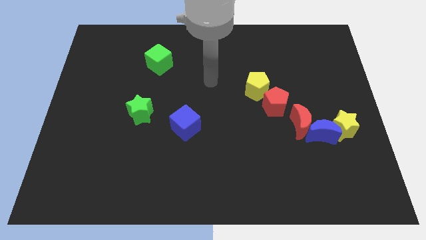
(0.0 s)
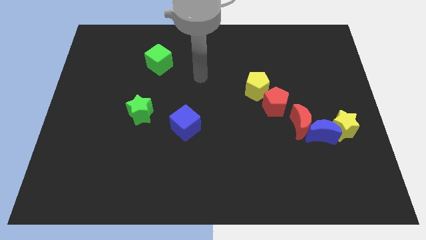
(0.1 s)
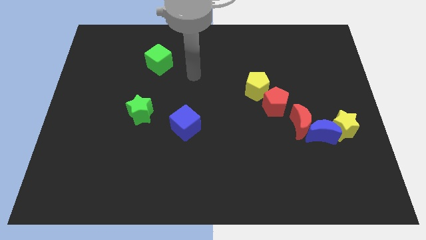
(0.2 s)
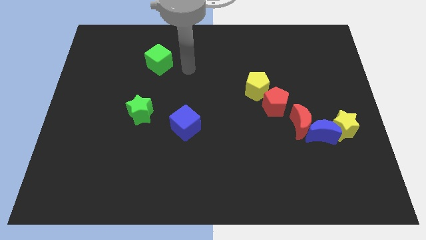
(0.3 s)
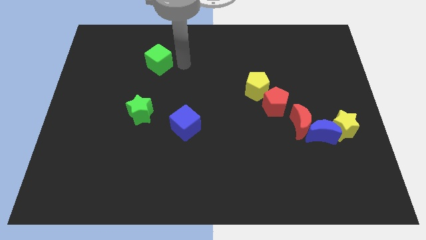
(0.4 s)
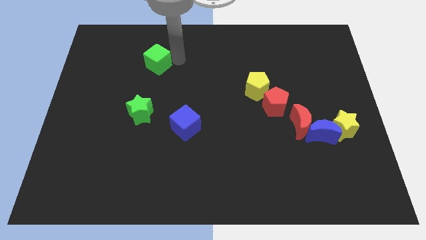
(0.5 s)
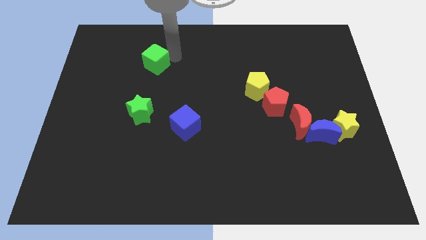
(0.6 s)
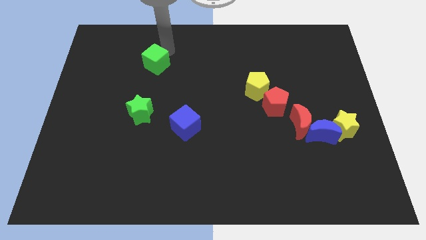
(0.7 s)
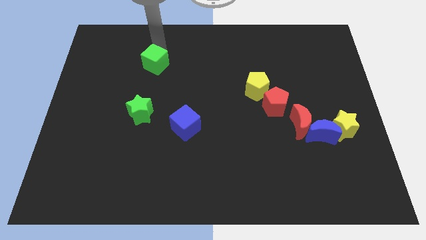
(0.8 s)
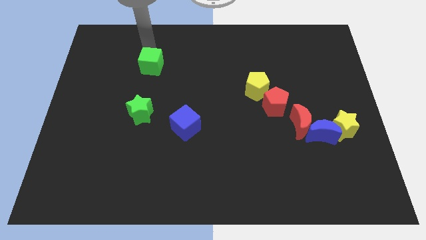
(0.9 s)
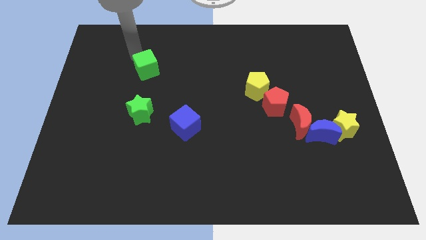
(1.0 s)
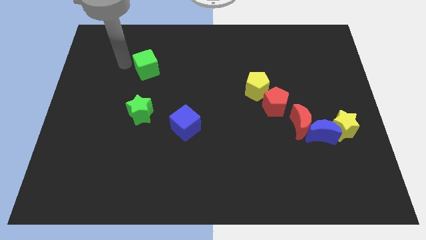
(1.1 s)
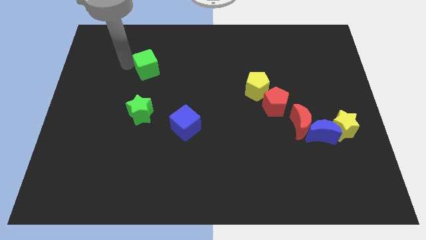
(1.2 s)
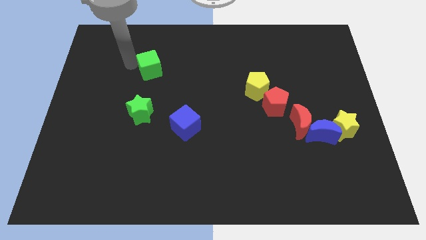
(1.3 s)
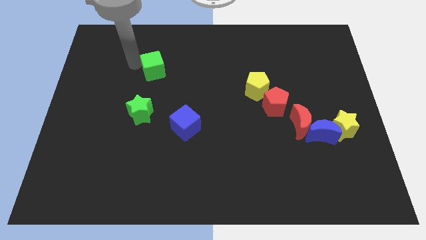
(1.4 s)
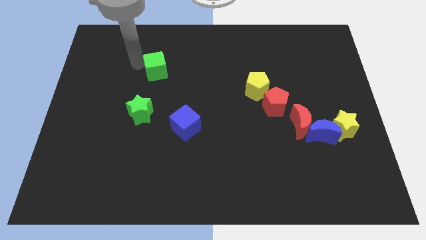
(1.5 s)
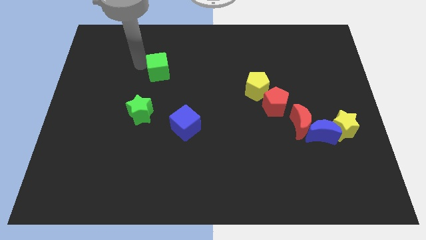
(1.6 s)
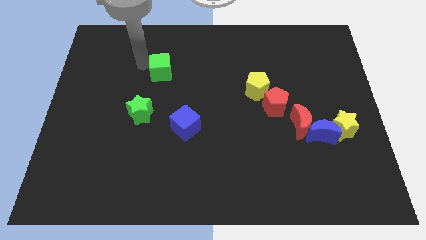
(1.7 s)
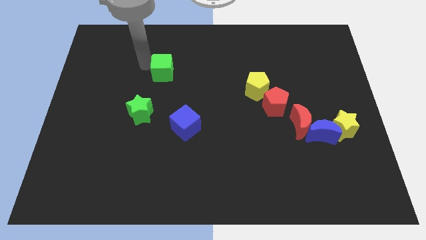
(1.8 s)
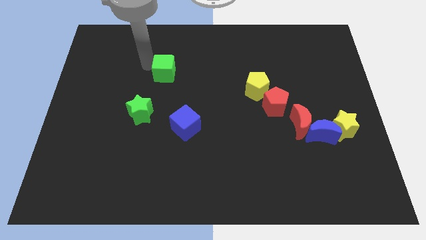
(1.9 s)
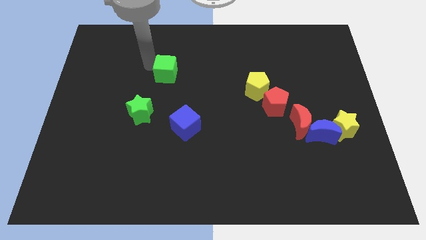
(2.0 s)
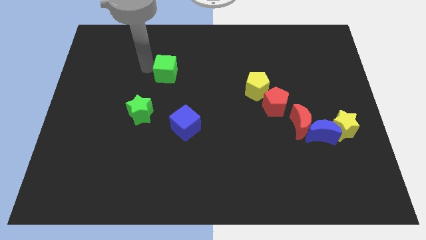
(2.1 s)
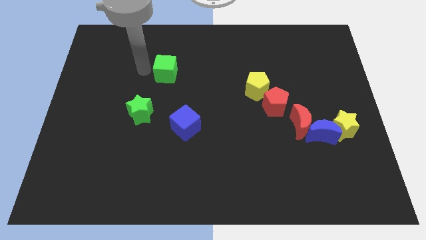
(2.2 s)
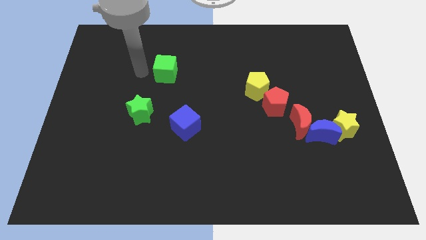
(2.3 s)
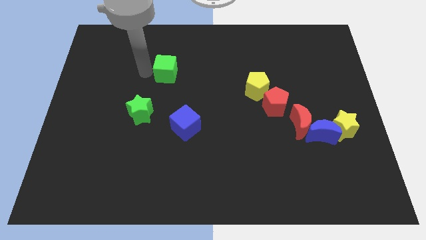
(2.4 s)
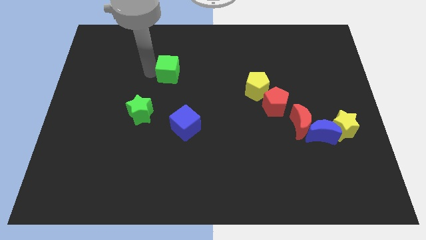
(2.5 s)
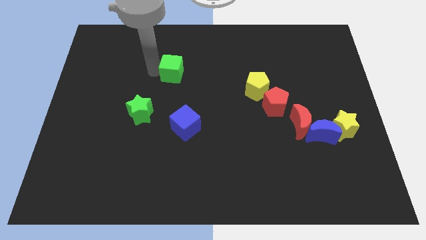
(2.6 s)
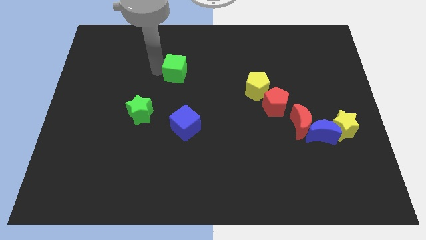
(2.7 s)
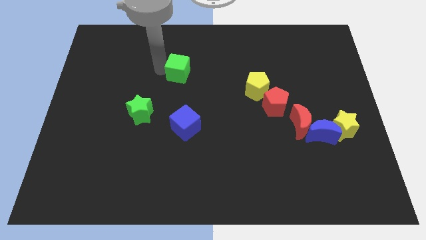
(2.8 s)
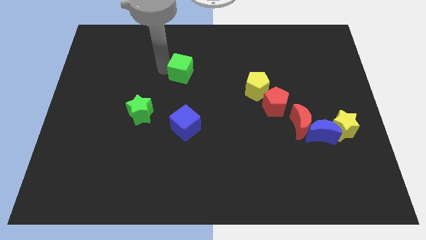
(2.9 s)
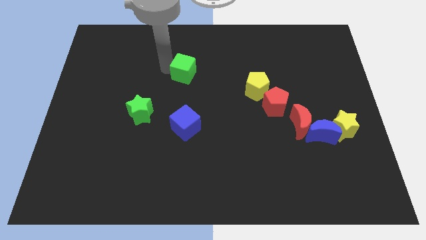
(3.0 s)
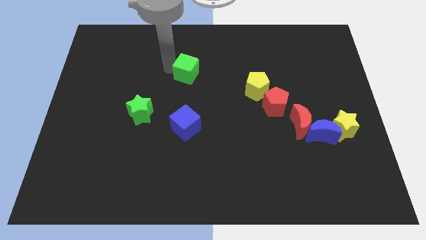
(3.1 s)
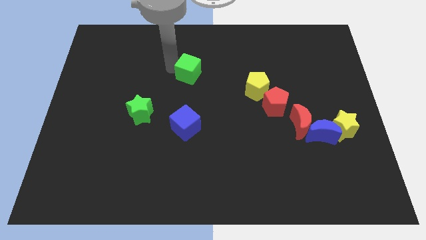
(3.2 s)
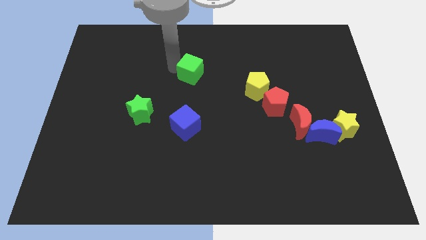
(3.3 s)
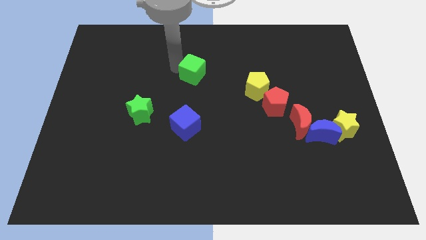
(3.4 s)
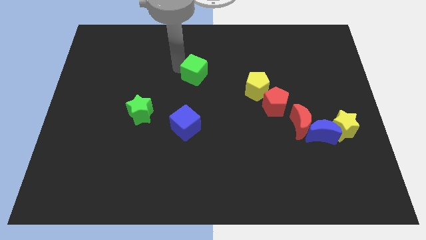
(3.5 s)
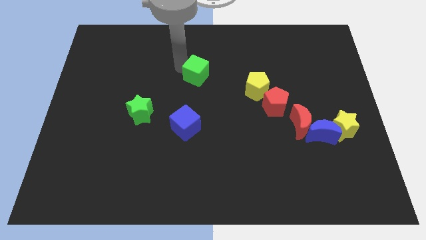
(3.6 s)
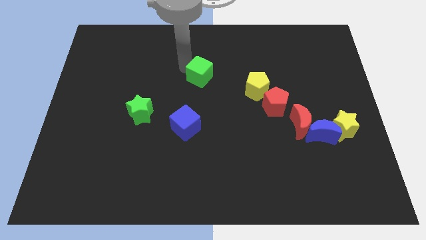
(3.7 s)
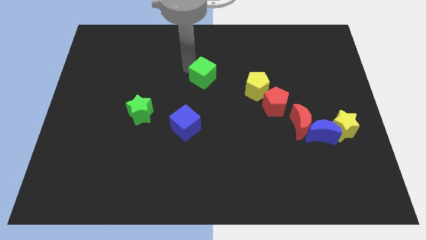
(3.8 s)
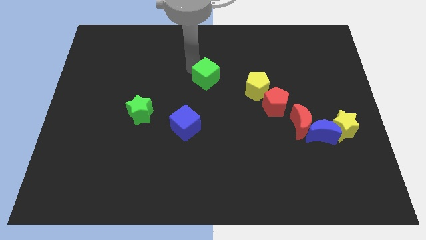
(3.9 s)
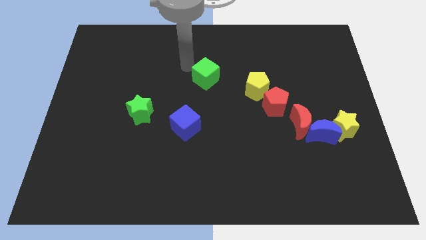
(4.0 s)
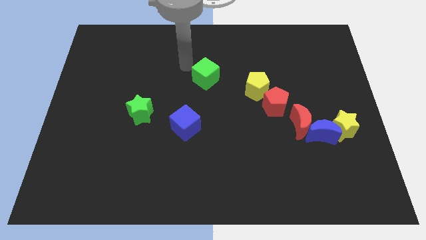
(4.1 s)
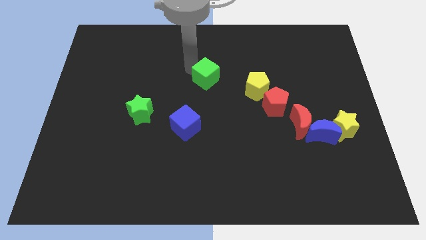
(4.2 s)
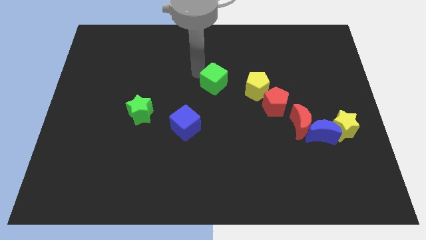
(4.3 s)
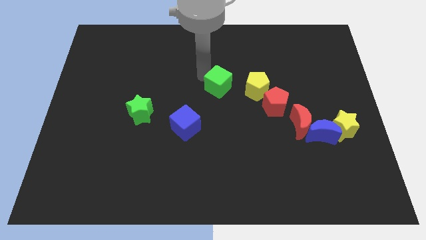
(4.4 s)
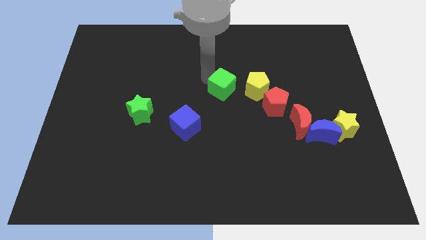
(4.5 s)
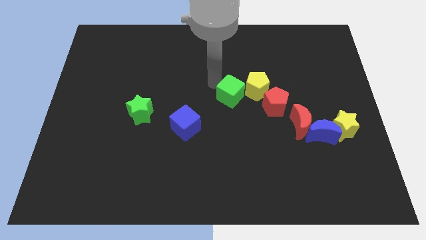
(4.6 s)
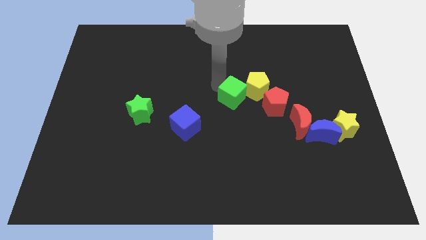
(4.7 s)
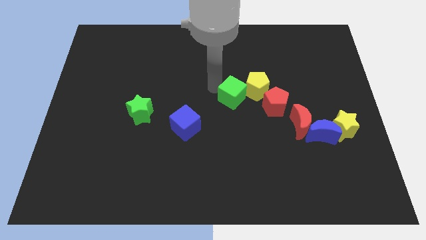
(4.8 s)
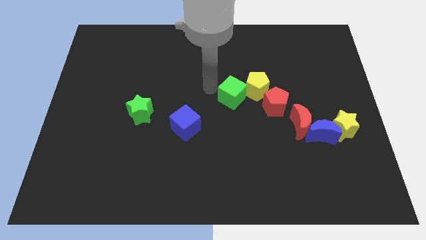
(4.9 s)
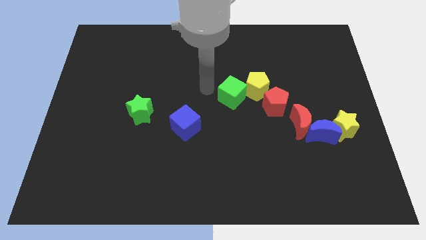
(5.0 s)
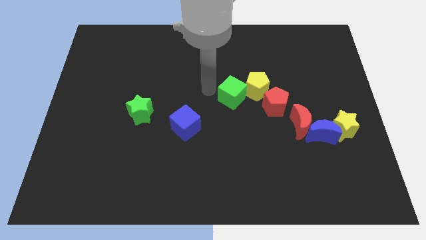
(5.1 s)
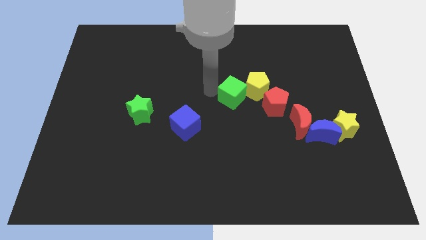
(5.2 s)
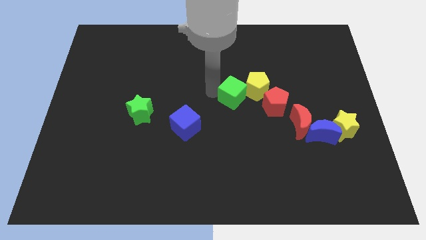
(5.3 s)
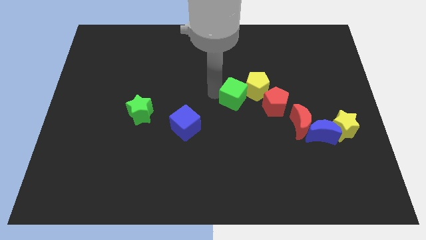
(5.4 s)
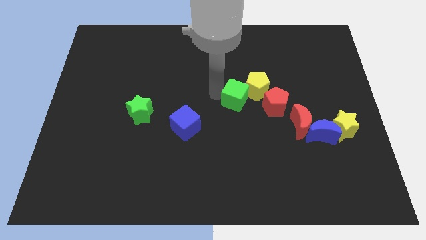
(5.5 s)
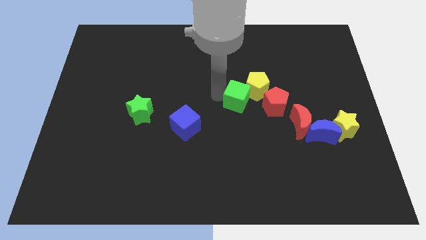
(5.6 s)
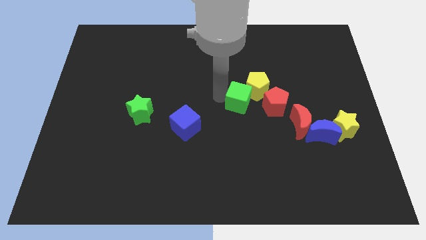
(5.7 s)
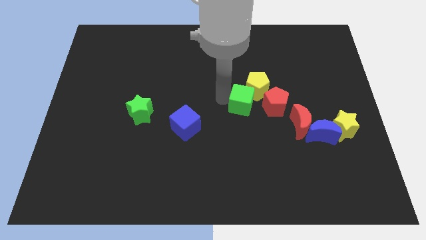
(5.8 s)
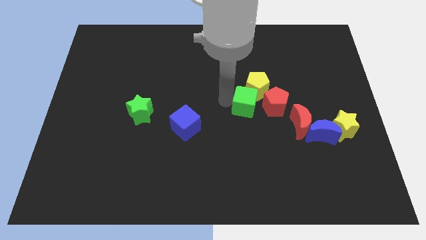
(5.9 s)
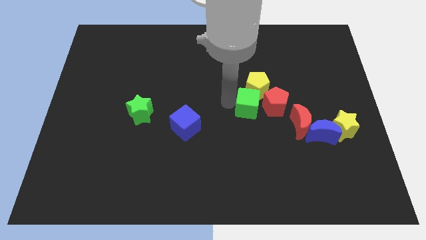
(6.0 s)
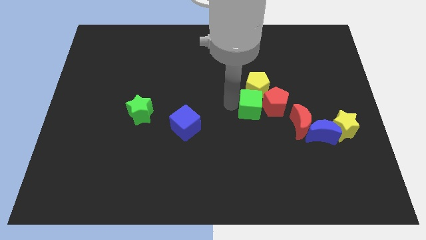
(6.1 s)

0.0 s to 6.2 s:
move the green cube to the red pentagon

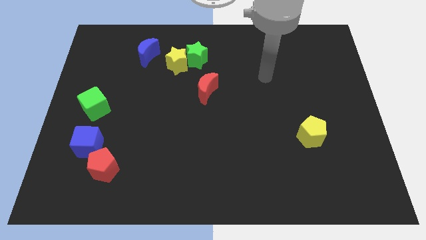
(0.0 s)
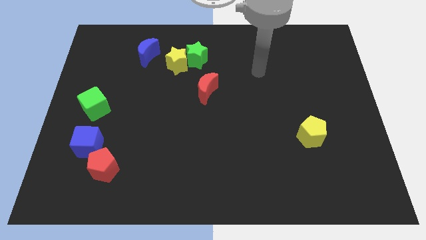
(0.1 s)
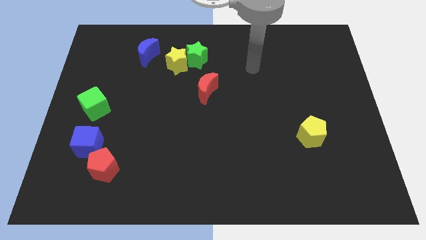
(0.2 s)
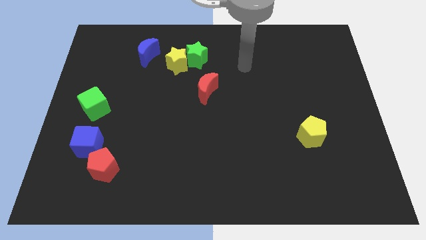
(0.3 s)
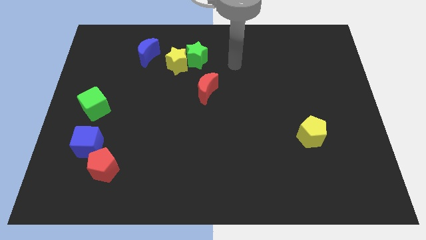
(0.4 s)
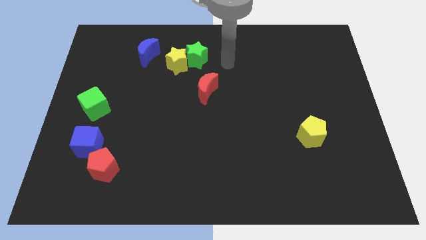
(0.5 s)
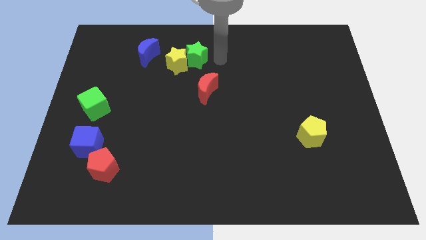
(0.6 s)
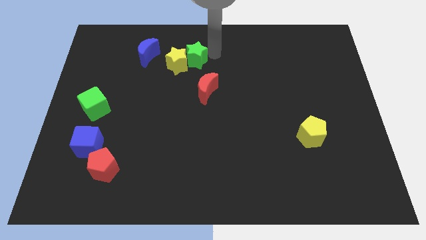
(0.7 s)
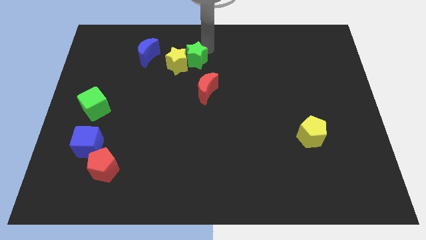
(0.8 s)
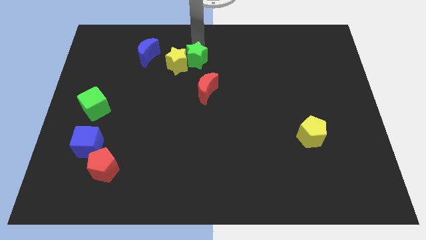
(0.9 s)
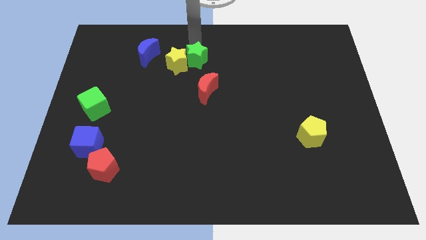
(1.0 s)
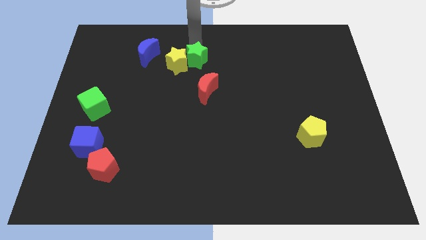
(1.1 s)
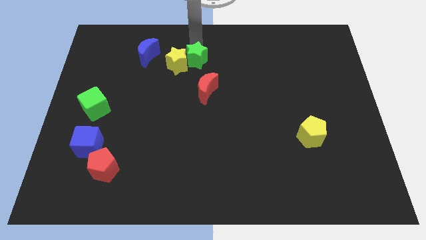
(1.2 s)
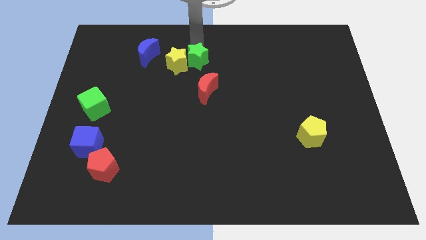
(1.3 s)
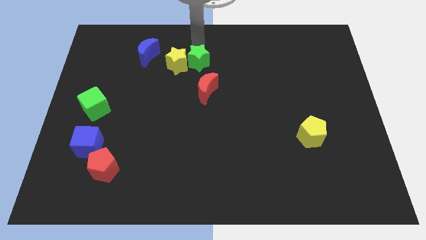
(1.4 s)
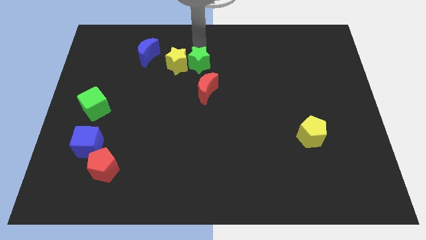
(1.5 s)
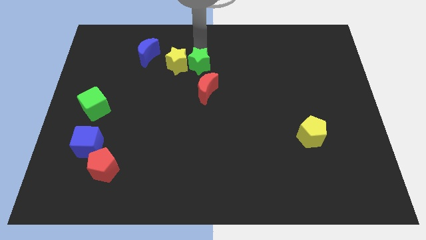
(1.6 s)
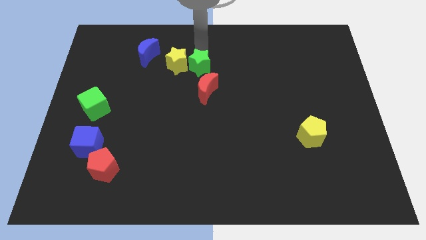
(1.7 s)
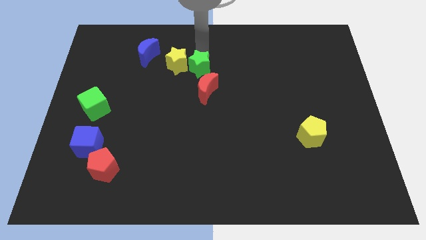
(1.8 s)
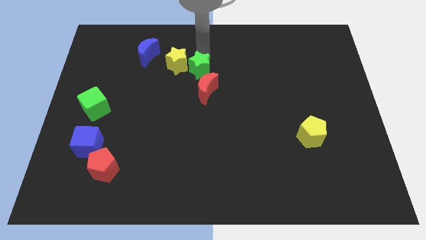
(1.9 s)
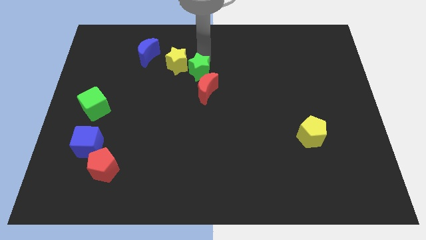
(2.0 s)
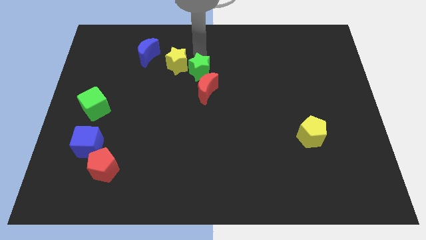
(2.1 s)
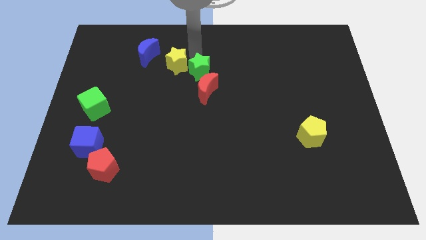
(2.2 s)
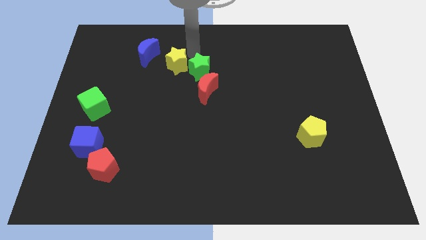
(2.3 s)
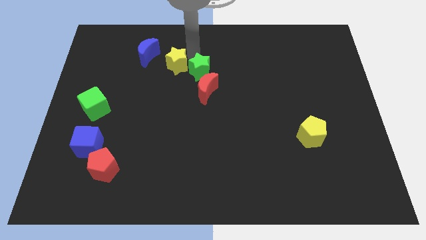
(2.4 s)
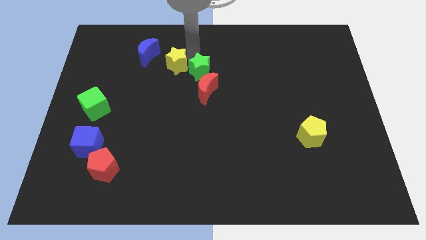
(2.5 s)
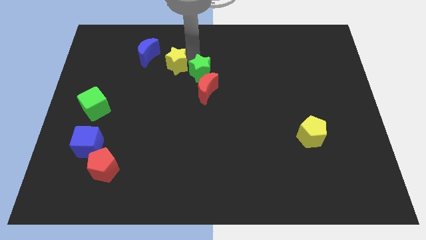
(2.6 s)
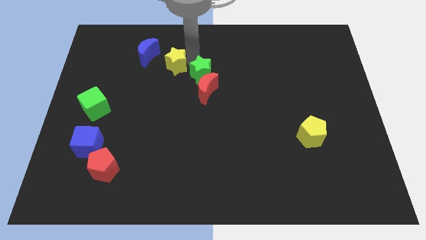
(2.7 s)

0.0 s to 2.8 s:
push the green star close to the red moon
